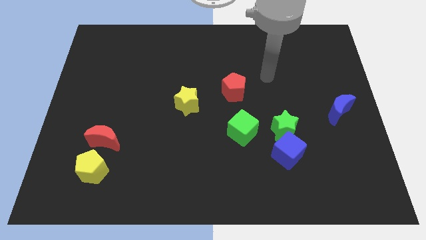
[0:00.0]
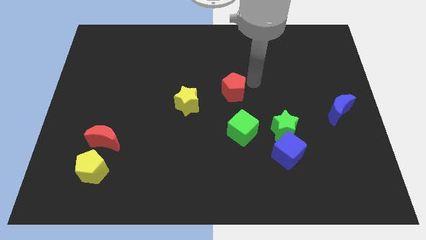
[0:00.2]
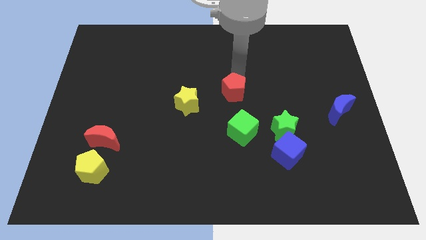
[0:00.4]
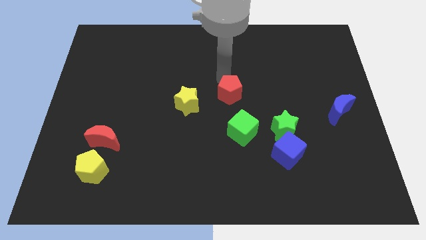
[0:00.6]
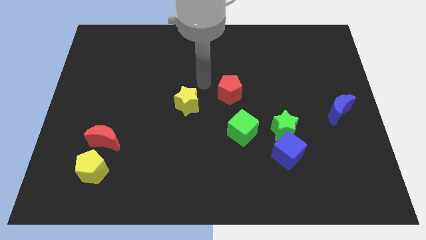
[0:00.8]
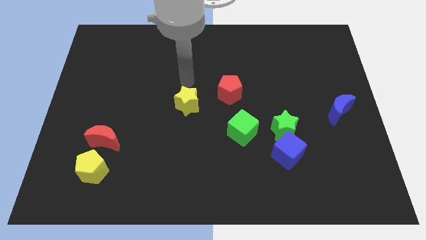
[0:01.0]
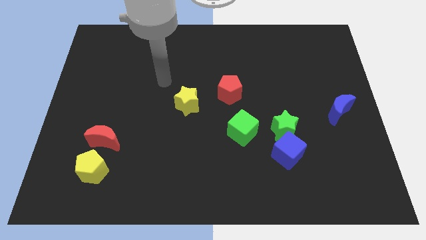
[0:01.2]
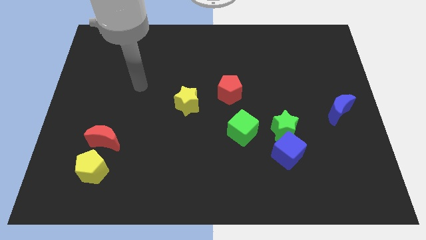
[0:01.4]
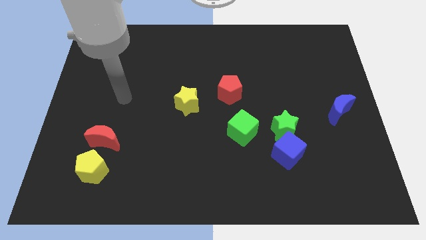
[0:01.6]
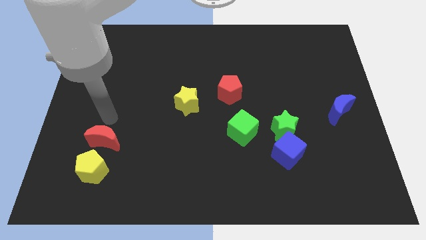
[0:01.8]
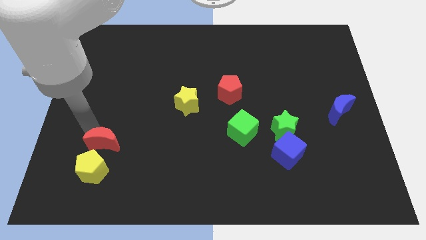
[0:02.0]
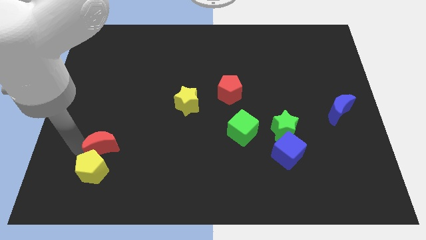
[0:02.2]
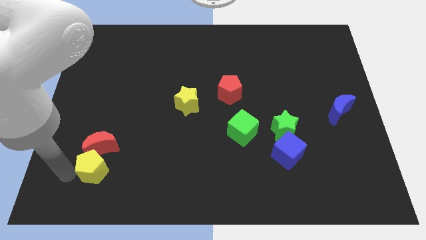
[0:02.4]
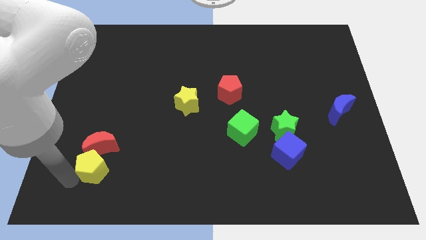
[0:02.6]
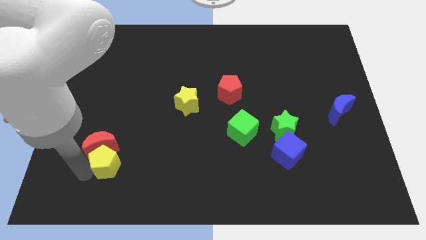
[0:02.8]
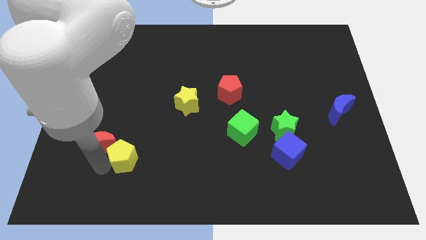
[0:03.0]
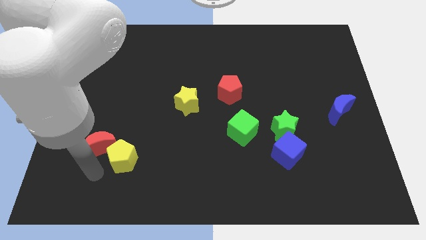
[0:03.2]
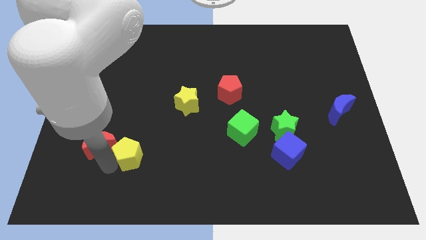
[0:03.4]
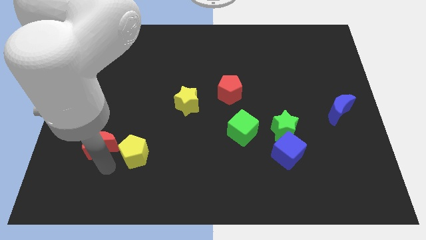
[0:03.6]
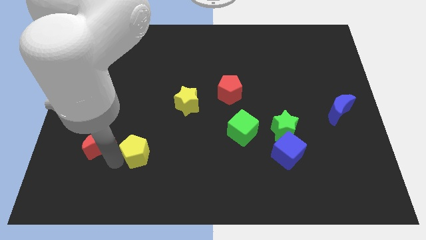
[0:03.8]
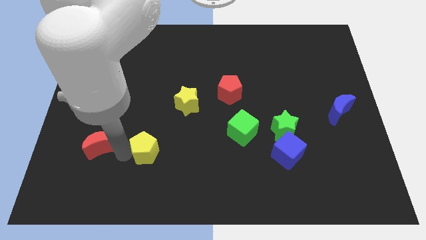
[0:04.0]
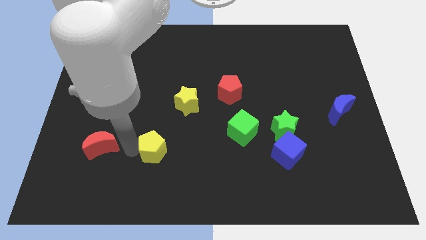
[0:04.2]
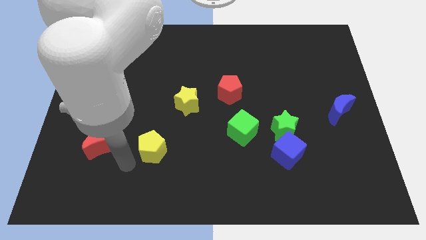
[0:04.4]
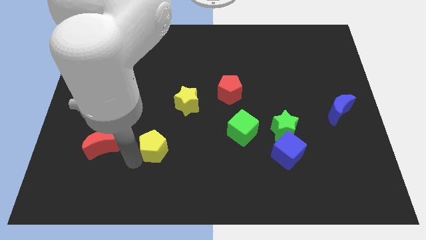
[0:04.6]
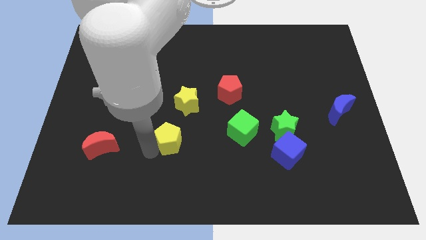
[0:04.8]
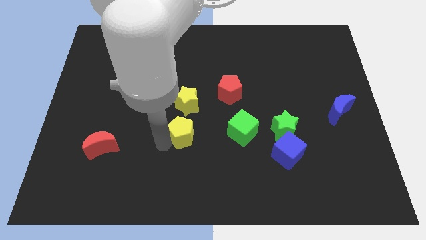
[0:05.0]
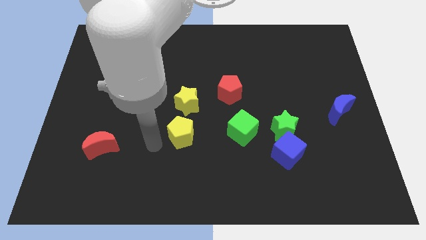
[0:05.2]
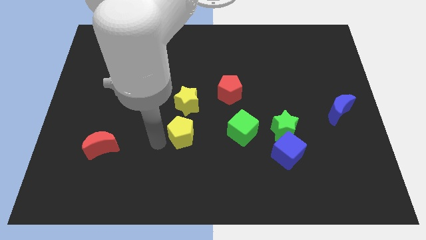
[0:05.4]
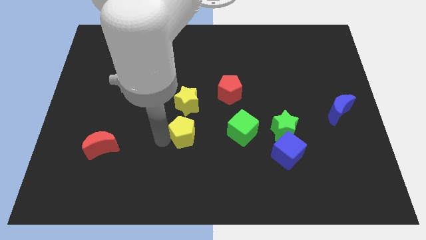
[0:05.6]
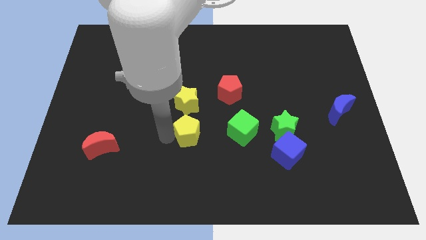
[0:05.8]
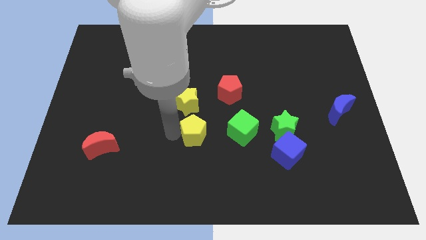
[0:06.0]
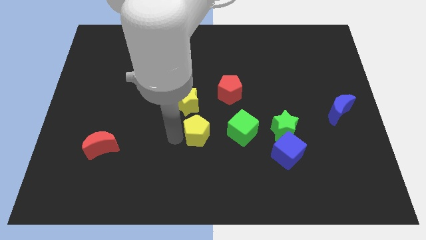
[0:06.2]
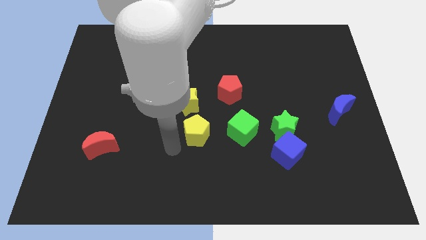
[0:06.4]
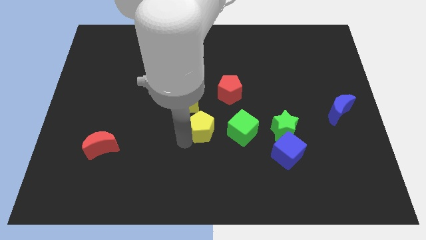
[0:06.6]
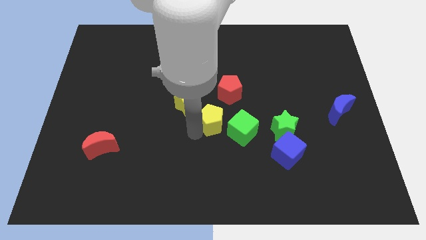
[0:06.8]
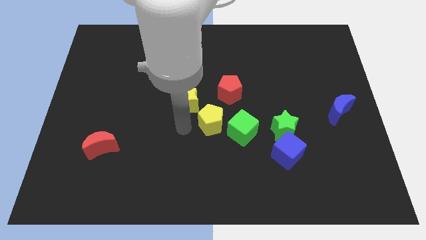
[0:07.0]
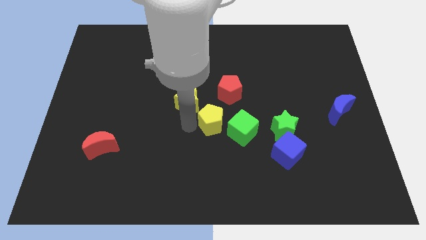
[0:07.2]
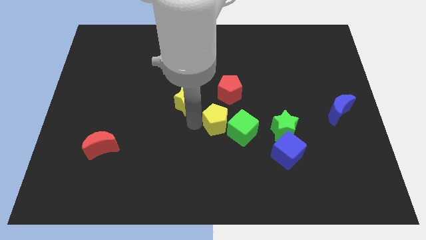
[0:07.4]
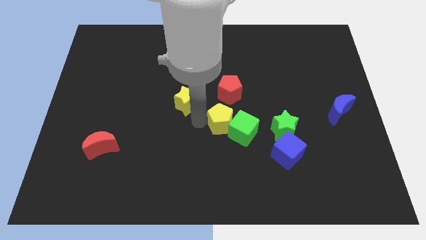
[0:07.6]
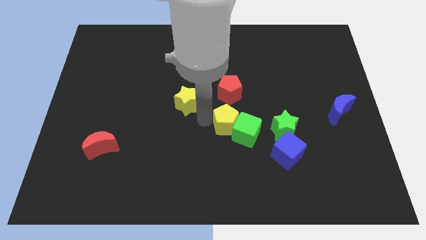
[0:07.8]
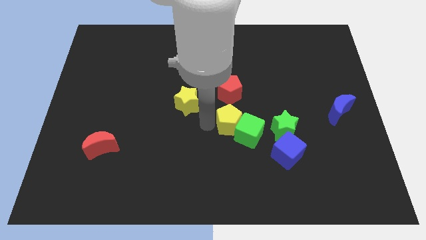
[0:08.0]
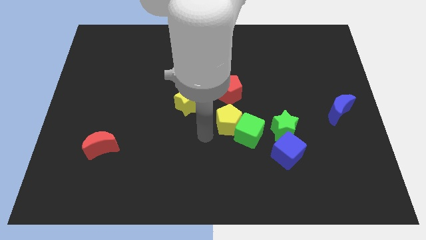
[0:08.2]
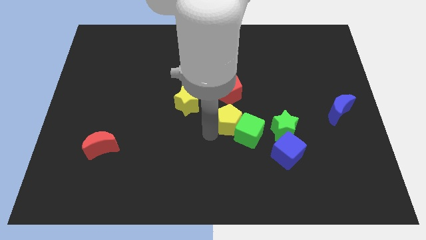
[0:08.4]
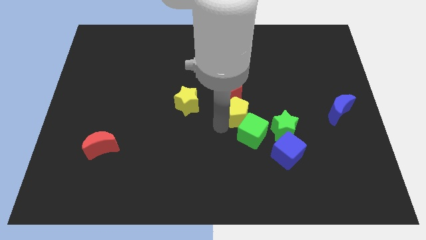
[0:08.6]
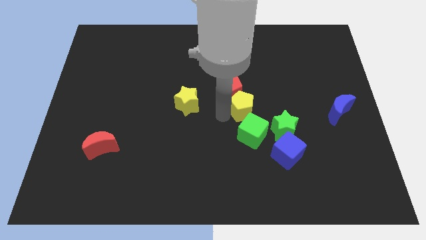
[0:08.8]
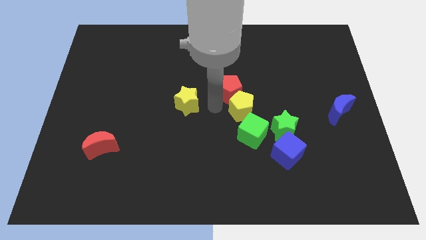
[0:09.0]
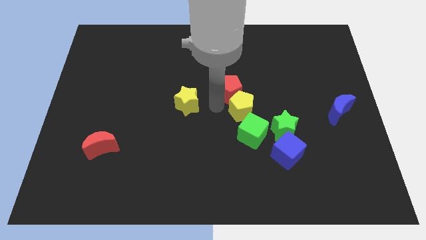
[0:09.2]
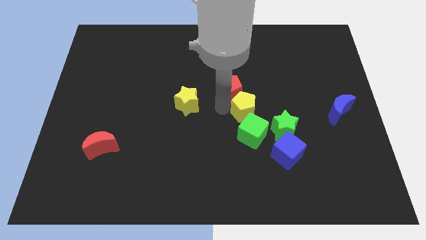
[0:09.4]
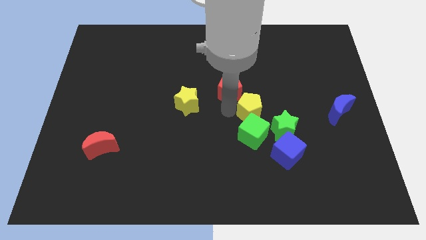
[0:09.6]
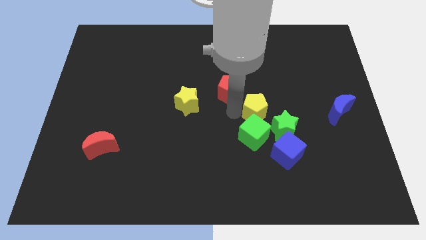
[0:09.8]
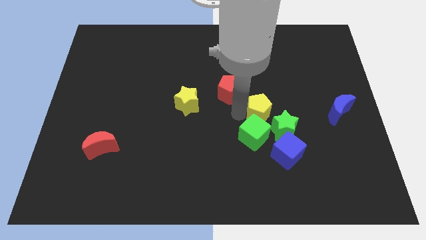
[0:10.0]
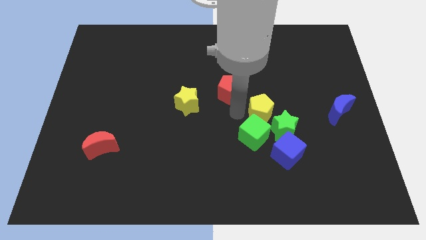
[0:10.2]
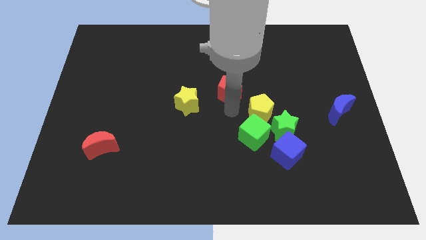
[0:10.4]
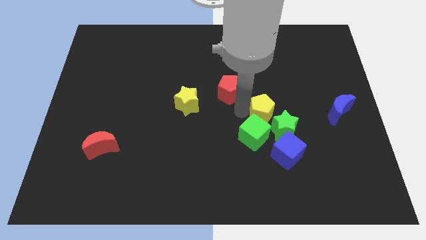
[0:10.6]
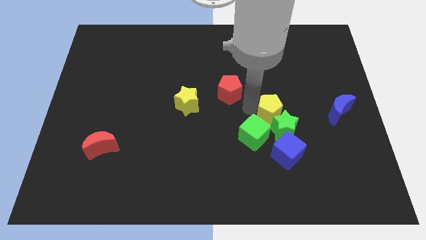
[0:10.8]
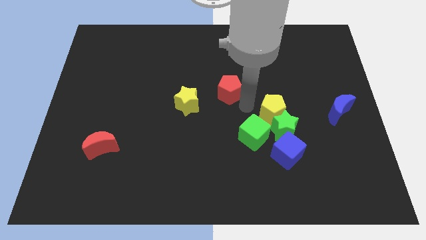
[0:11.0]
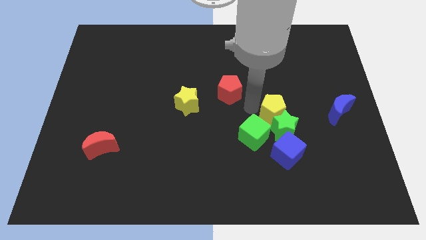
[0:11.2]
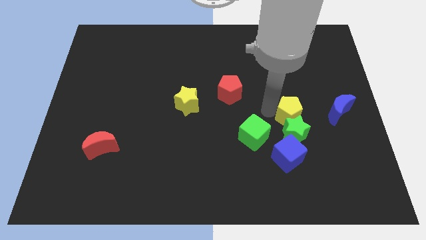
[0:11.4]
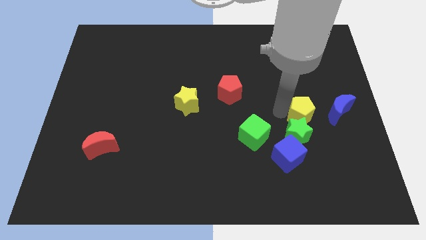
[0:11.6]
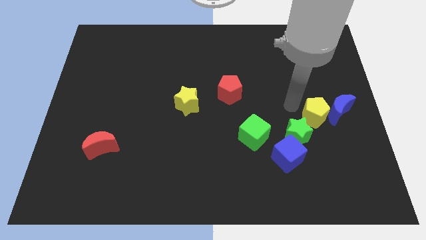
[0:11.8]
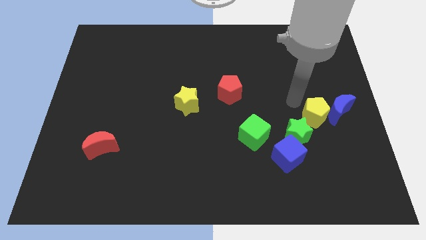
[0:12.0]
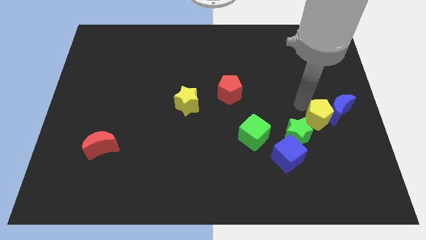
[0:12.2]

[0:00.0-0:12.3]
move the yellow pentagon to the right of the green star

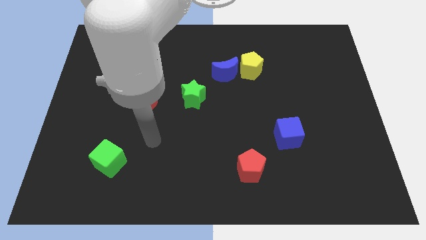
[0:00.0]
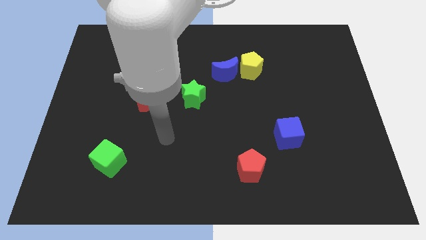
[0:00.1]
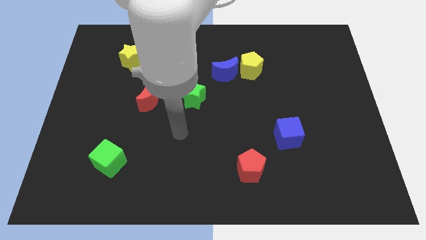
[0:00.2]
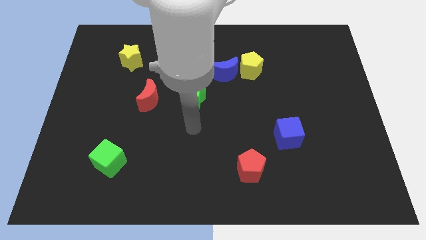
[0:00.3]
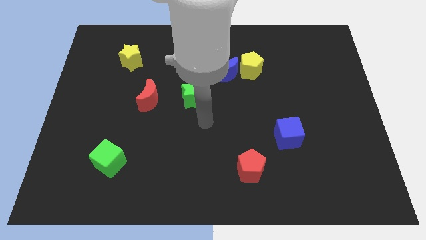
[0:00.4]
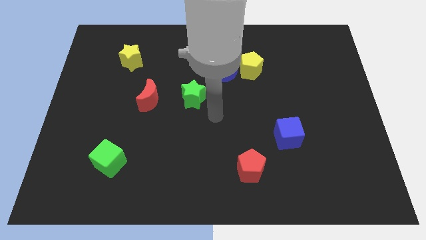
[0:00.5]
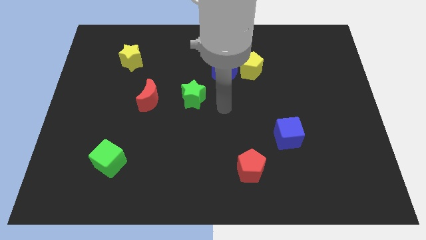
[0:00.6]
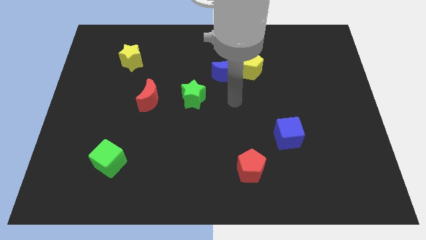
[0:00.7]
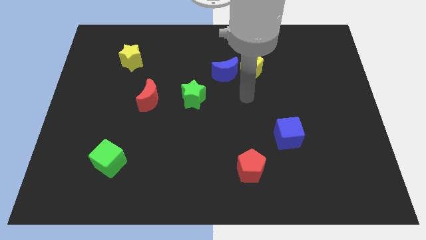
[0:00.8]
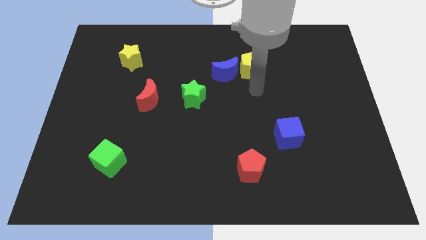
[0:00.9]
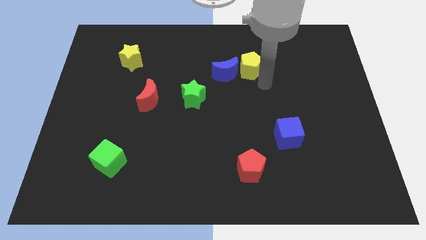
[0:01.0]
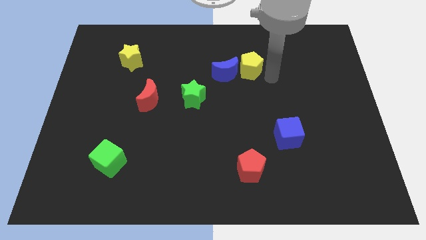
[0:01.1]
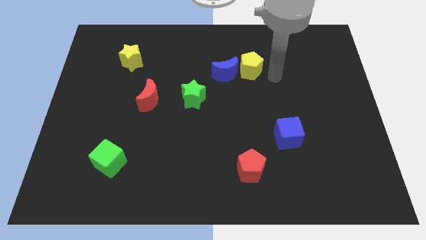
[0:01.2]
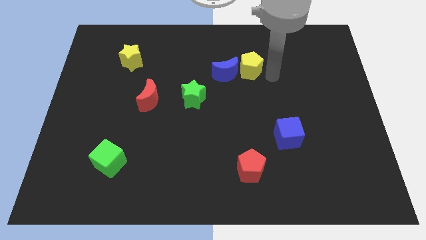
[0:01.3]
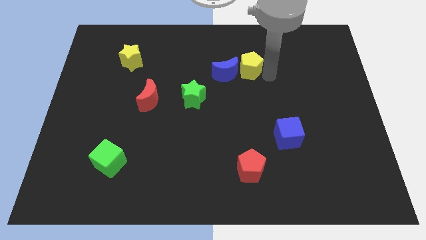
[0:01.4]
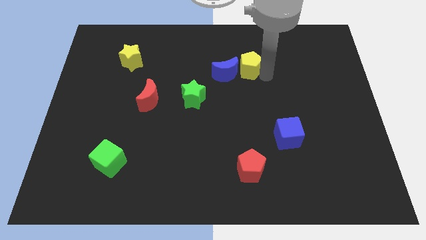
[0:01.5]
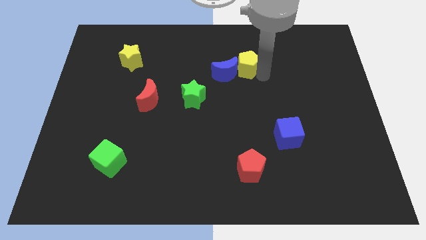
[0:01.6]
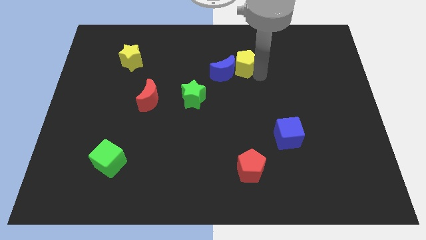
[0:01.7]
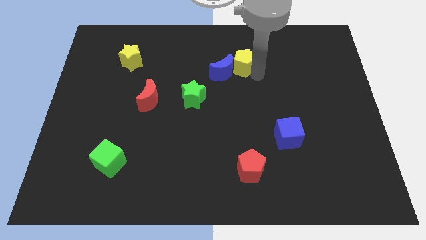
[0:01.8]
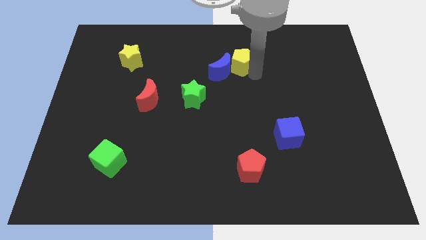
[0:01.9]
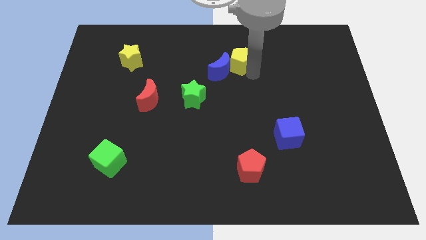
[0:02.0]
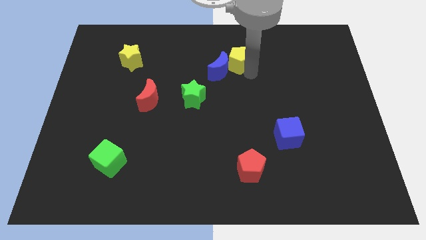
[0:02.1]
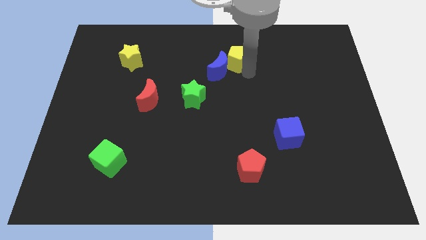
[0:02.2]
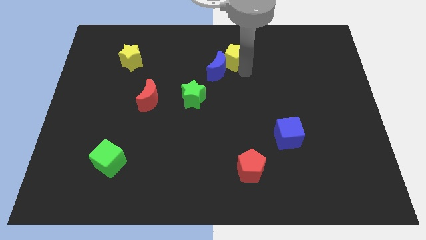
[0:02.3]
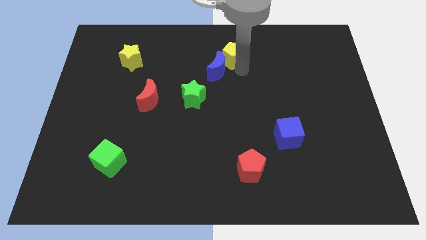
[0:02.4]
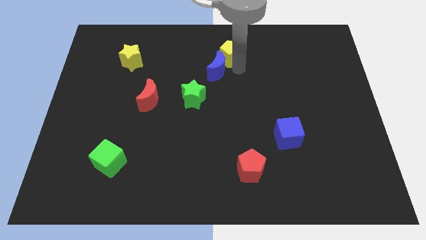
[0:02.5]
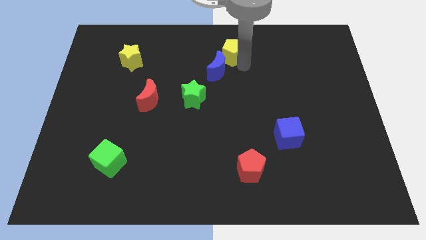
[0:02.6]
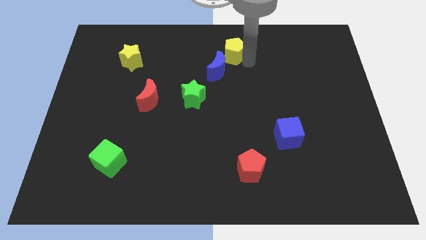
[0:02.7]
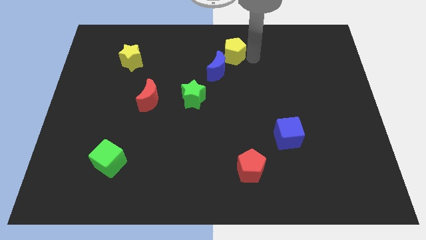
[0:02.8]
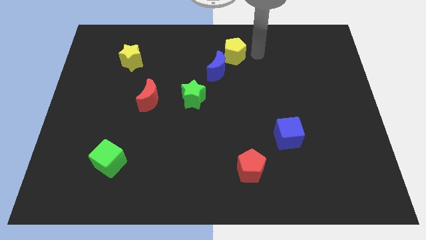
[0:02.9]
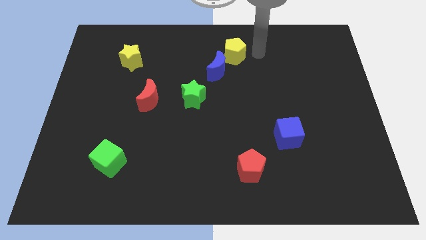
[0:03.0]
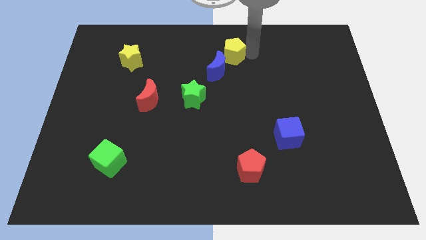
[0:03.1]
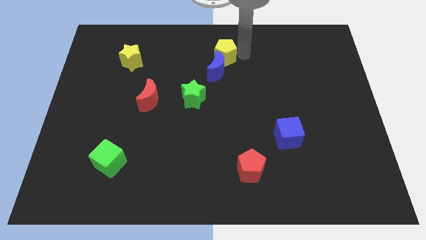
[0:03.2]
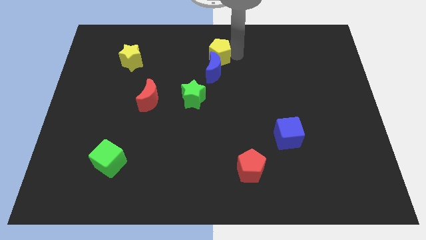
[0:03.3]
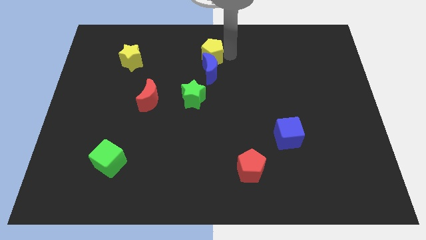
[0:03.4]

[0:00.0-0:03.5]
slide the yellow pentagon to the top left side of the blue moon
